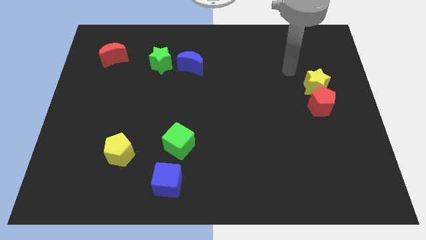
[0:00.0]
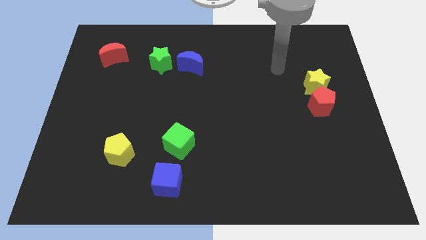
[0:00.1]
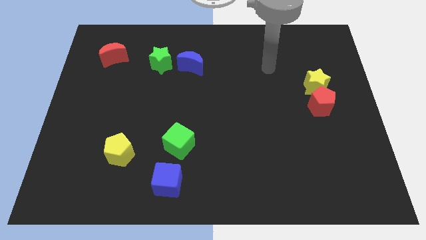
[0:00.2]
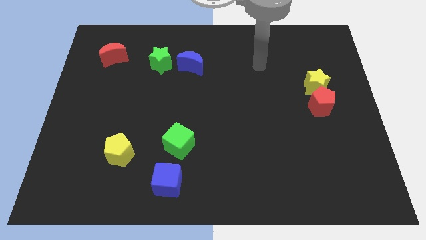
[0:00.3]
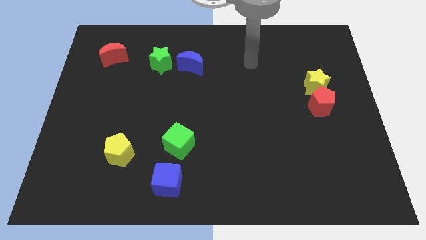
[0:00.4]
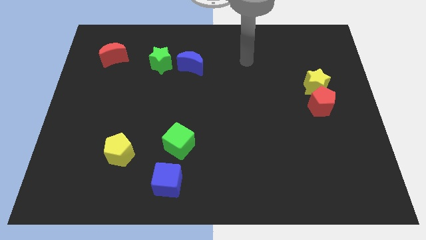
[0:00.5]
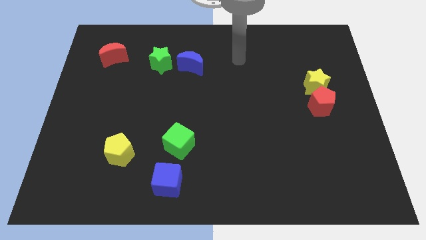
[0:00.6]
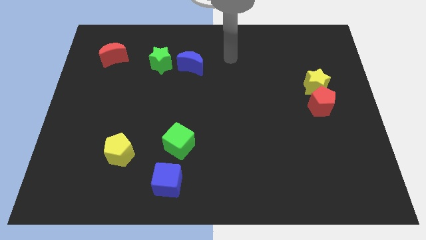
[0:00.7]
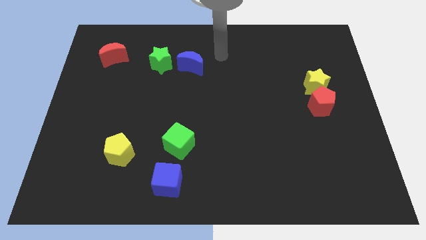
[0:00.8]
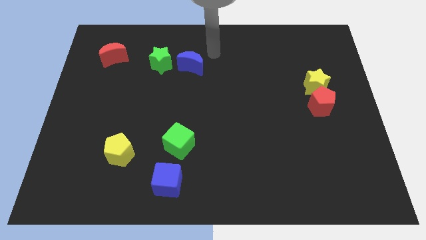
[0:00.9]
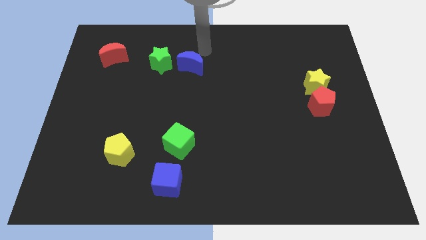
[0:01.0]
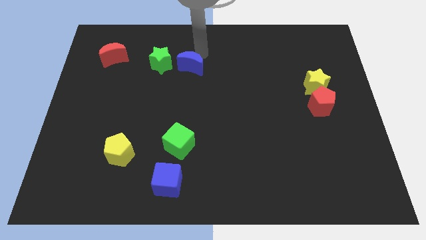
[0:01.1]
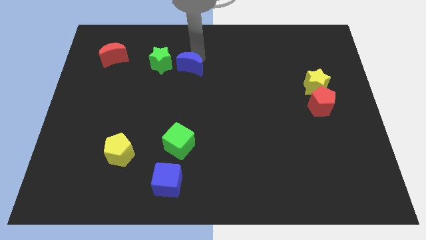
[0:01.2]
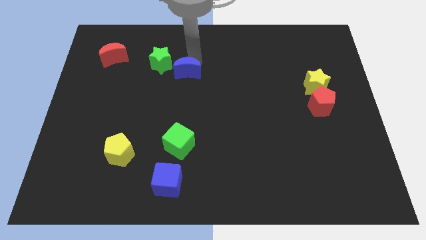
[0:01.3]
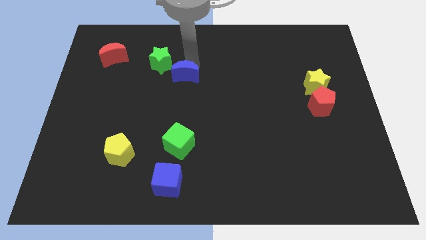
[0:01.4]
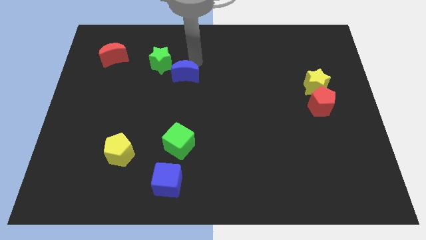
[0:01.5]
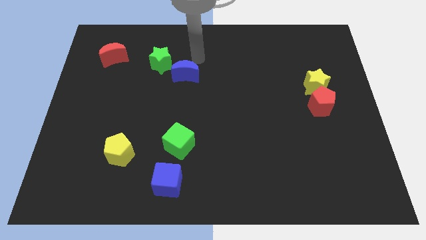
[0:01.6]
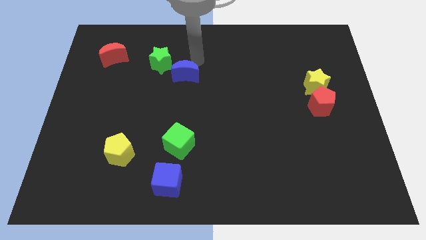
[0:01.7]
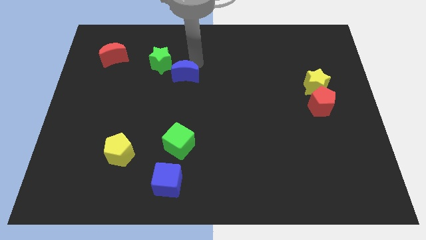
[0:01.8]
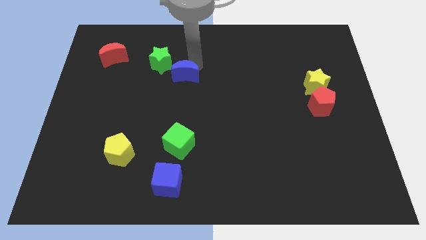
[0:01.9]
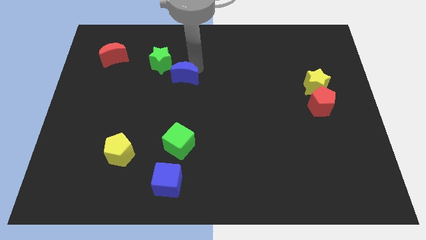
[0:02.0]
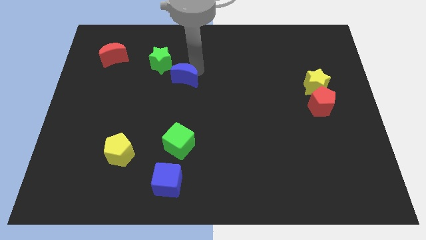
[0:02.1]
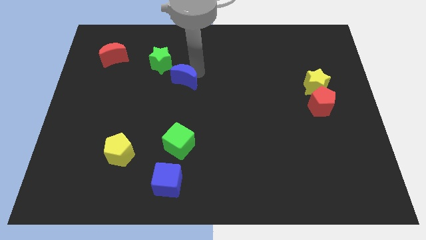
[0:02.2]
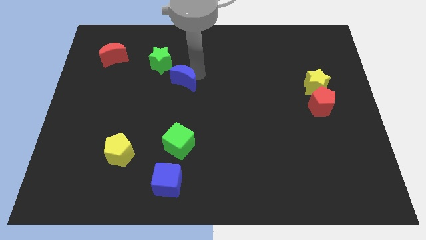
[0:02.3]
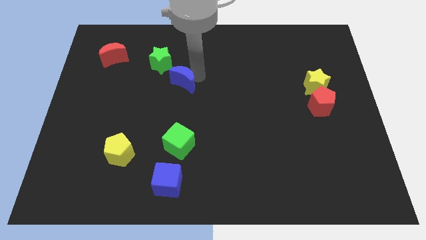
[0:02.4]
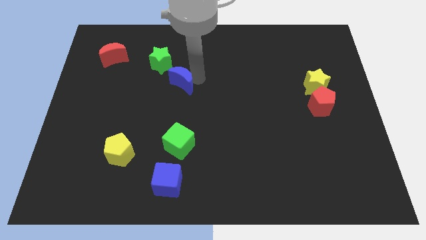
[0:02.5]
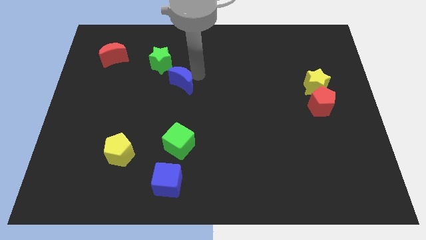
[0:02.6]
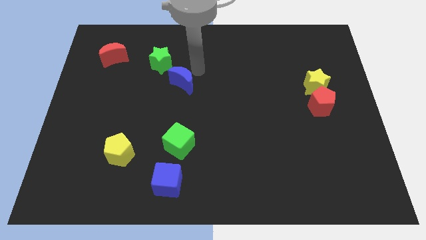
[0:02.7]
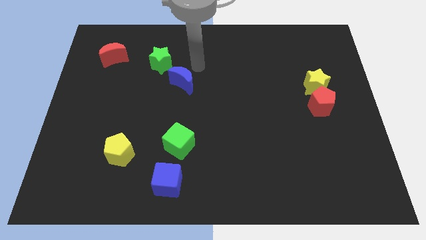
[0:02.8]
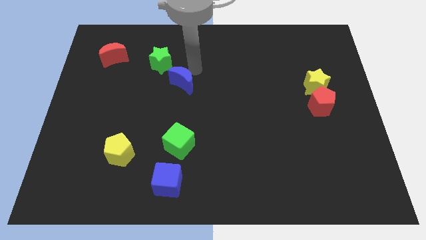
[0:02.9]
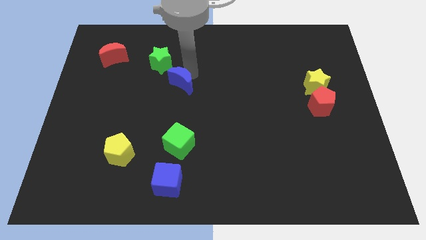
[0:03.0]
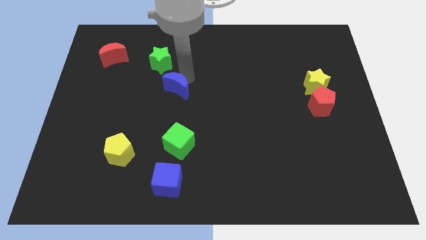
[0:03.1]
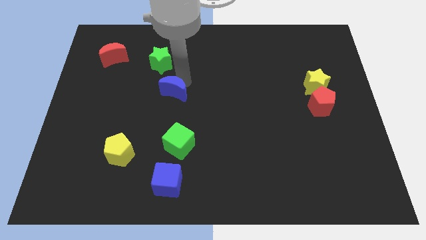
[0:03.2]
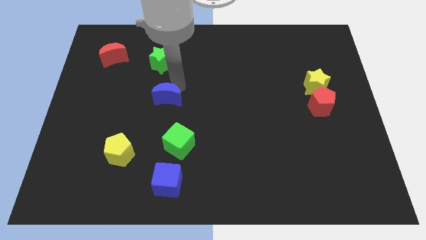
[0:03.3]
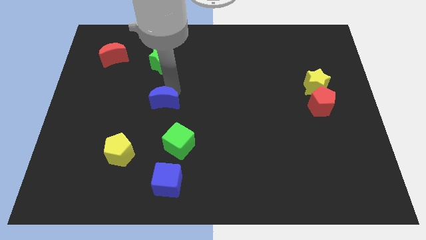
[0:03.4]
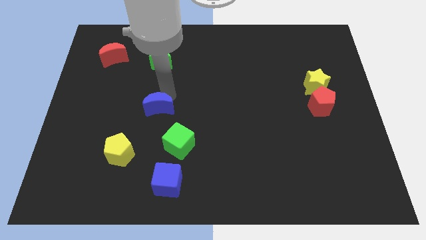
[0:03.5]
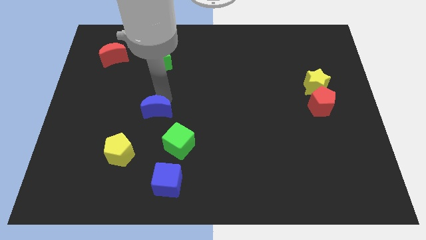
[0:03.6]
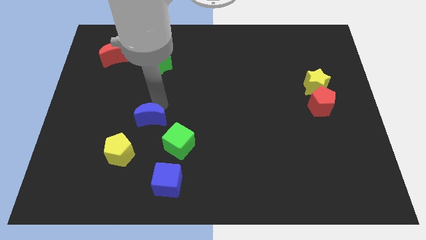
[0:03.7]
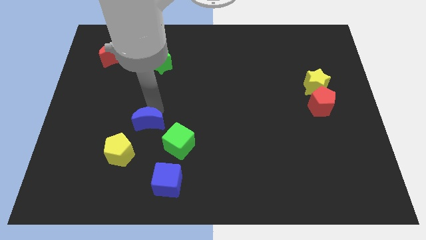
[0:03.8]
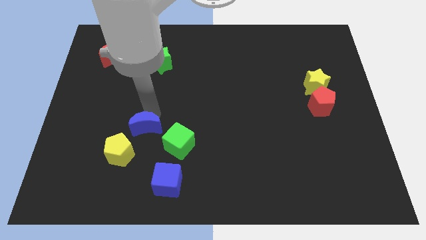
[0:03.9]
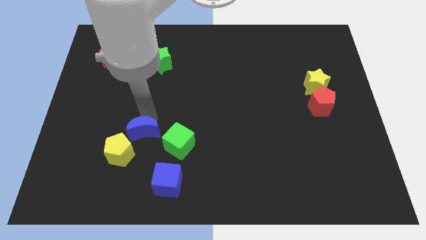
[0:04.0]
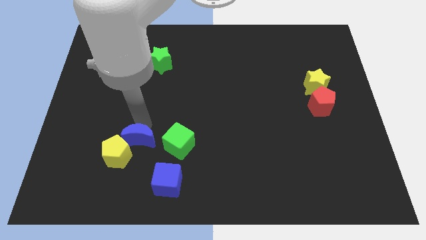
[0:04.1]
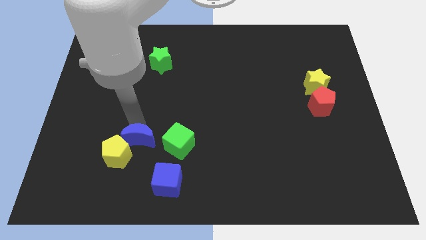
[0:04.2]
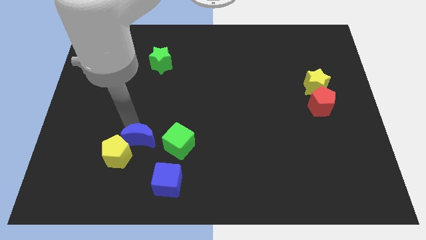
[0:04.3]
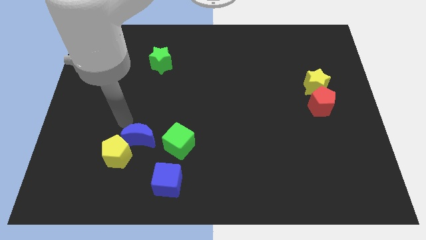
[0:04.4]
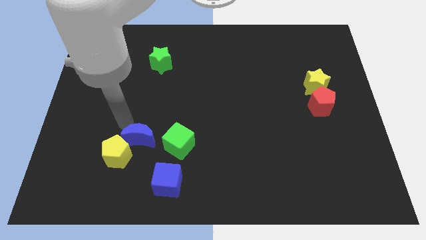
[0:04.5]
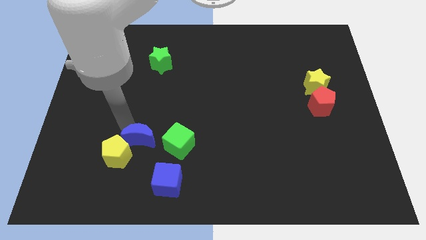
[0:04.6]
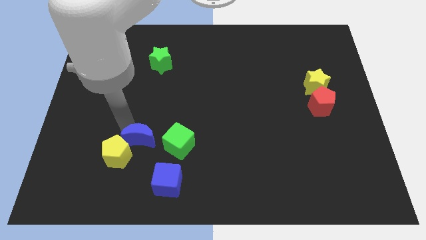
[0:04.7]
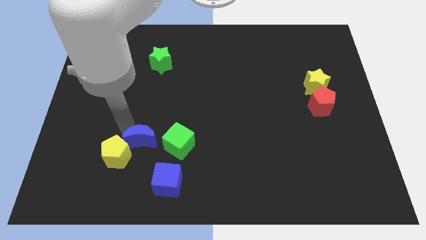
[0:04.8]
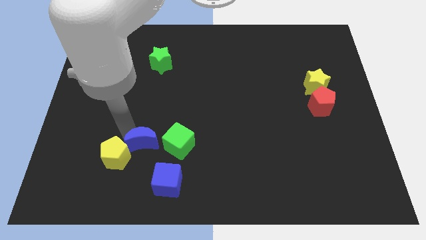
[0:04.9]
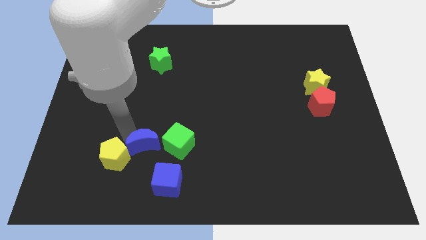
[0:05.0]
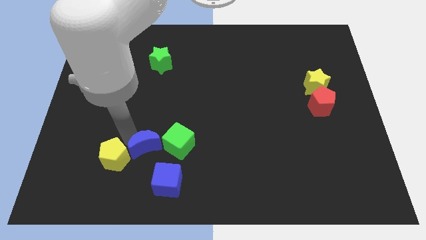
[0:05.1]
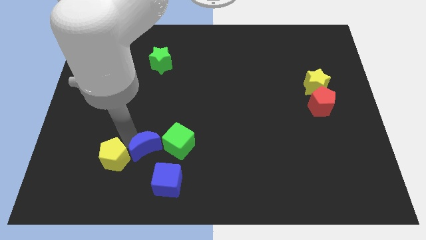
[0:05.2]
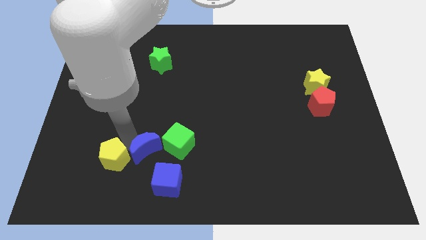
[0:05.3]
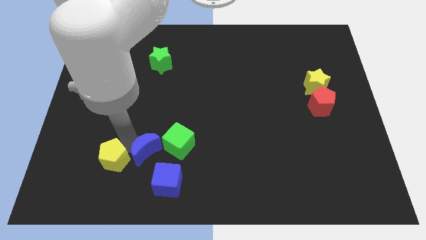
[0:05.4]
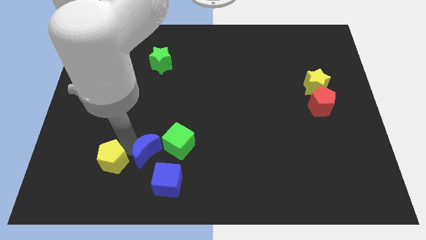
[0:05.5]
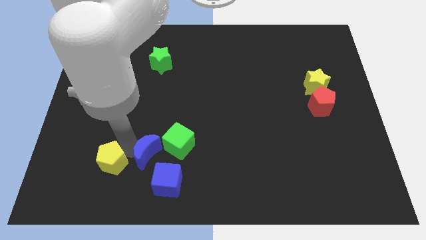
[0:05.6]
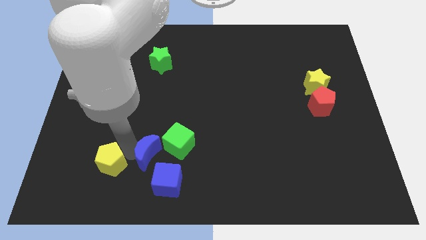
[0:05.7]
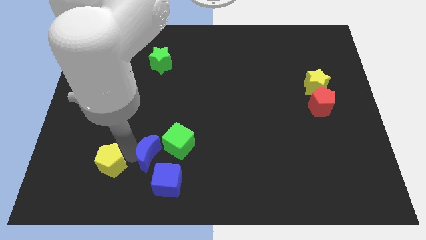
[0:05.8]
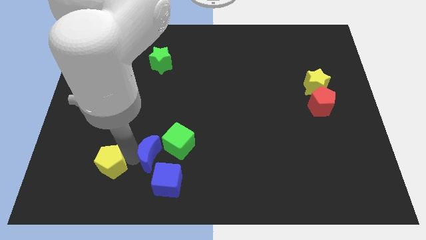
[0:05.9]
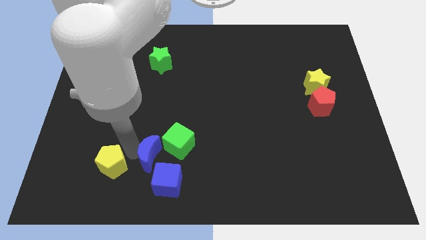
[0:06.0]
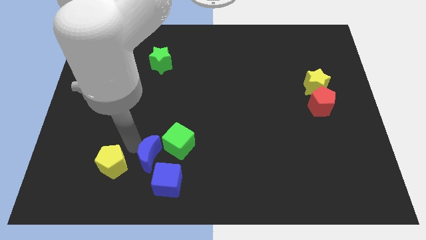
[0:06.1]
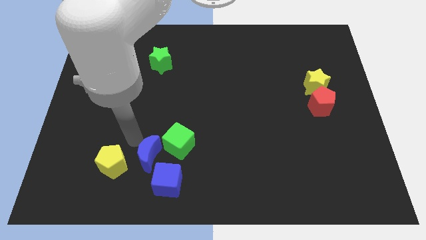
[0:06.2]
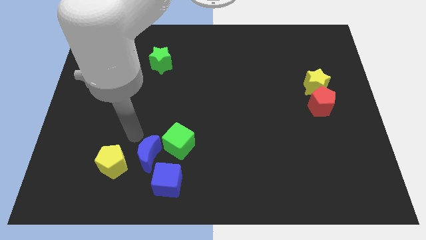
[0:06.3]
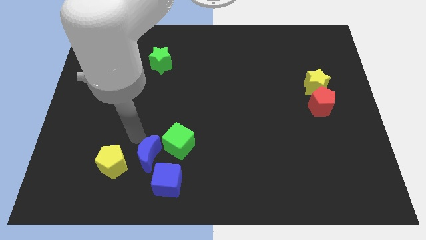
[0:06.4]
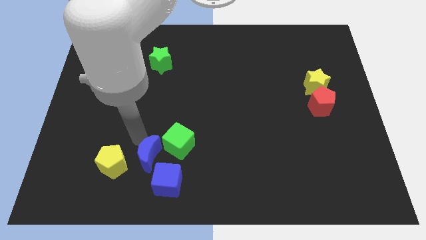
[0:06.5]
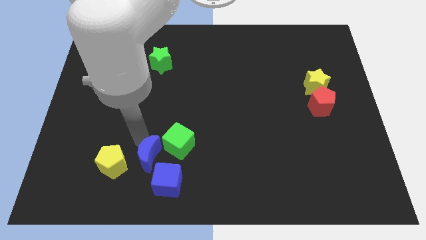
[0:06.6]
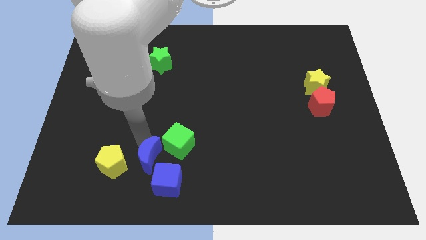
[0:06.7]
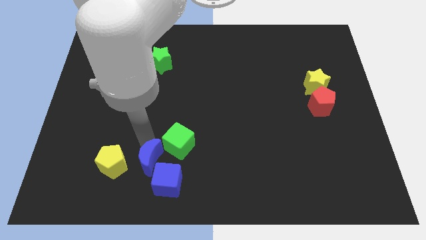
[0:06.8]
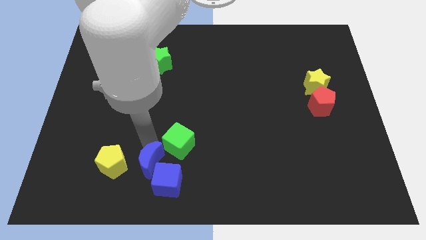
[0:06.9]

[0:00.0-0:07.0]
slide the blue moon next to the blue cube

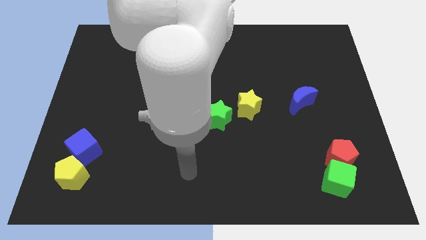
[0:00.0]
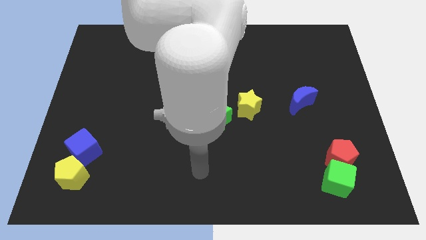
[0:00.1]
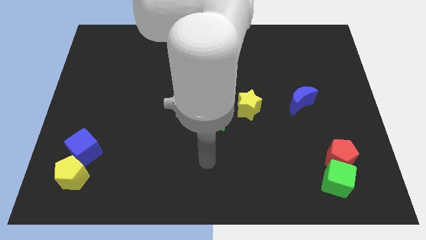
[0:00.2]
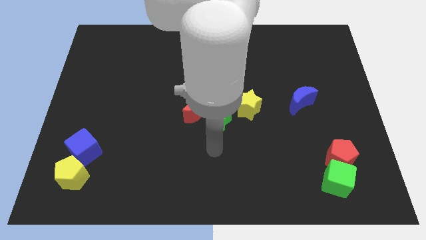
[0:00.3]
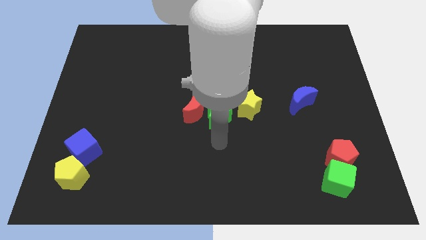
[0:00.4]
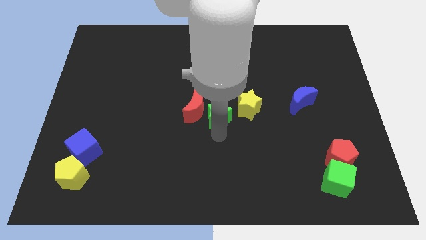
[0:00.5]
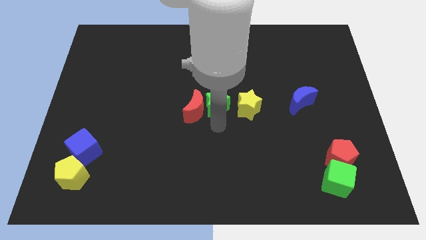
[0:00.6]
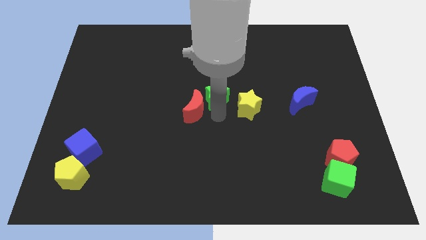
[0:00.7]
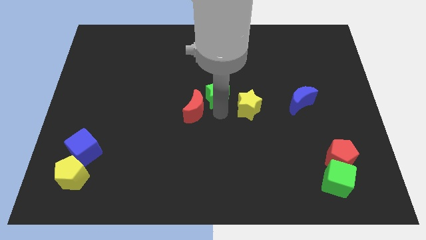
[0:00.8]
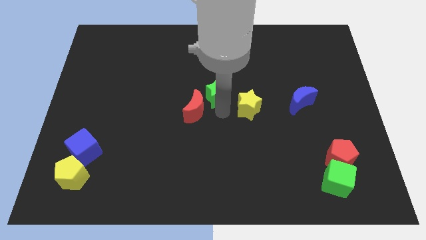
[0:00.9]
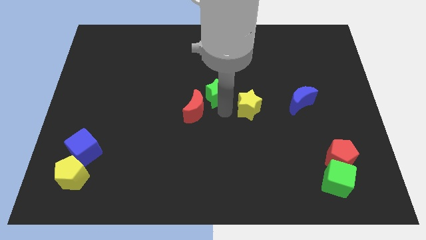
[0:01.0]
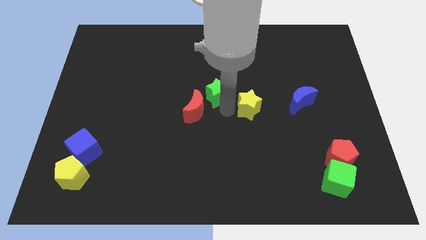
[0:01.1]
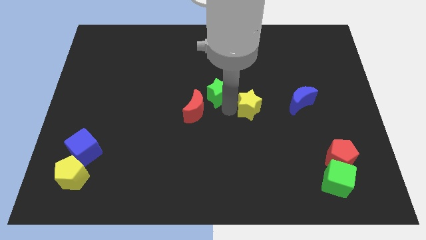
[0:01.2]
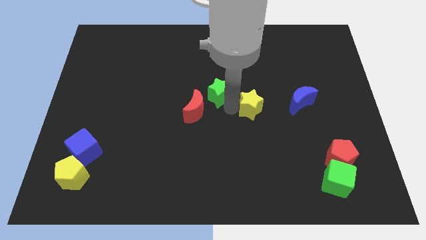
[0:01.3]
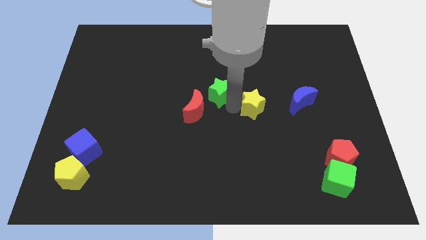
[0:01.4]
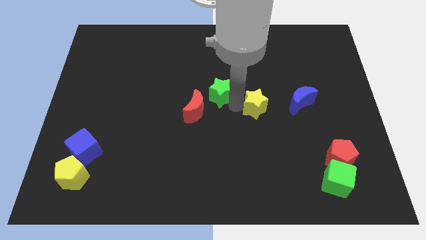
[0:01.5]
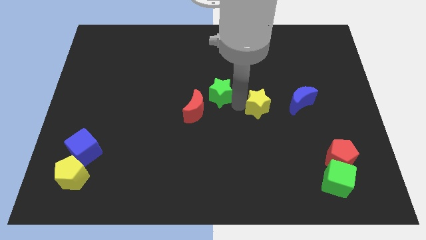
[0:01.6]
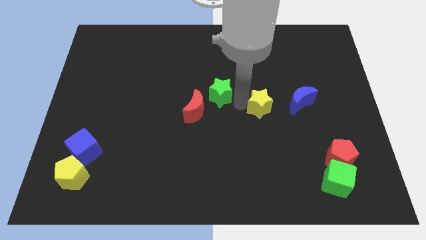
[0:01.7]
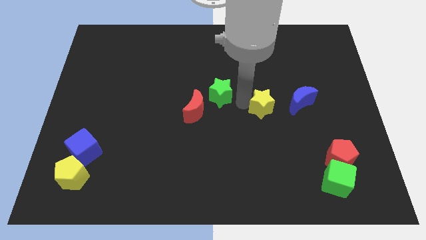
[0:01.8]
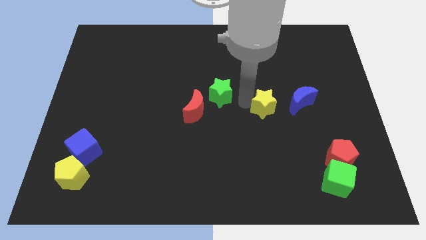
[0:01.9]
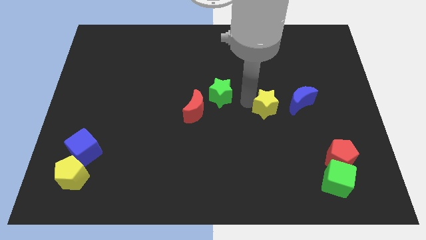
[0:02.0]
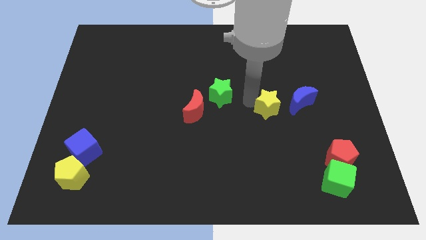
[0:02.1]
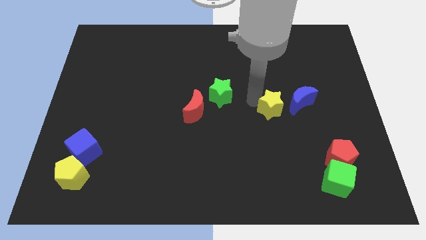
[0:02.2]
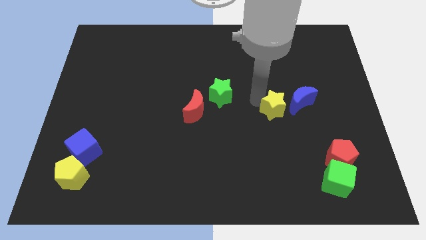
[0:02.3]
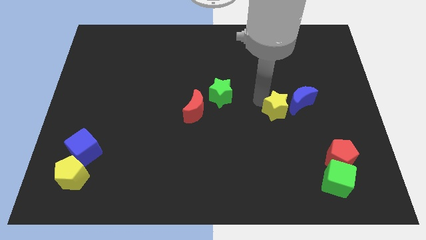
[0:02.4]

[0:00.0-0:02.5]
slide the yellow star close to the blue moon
